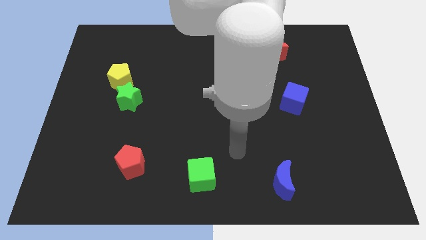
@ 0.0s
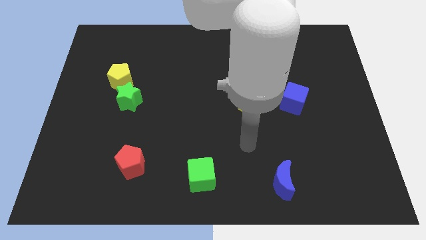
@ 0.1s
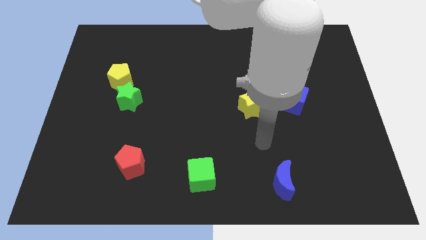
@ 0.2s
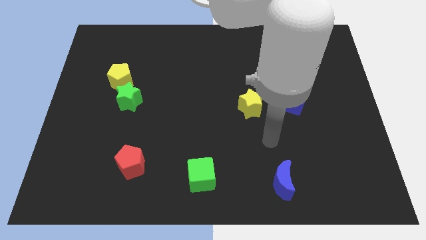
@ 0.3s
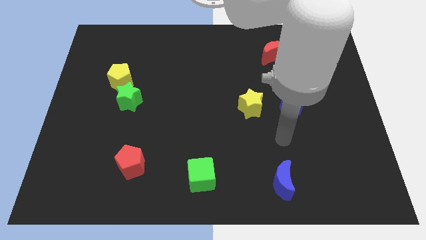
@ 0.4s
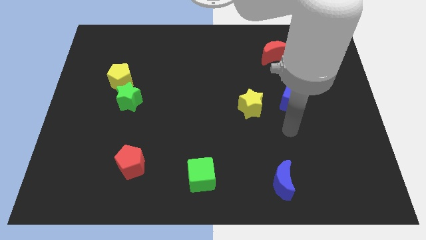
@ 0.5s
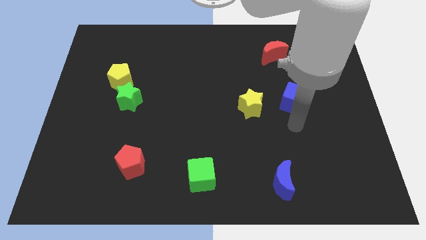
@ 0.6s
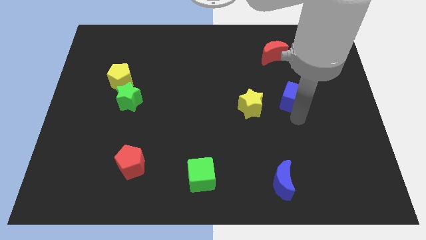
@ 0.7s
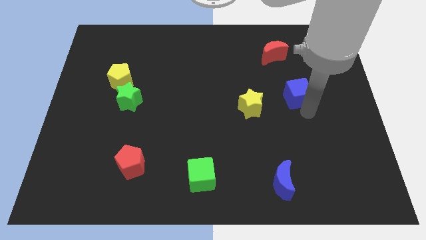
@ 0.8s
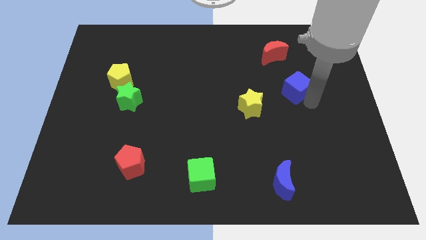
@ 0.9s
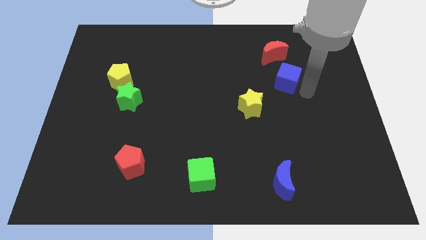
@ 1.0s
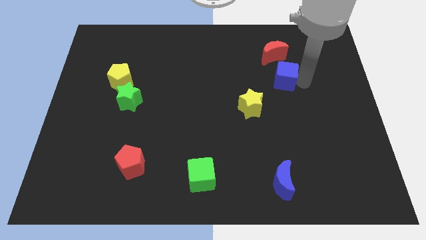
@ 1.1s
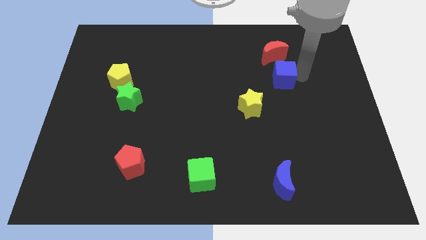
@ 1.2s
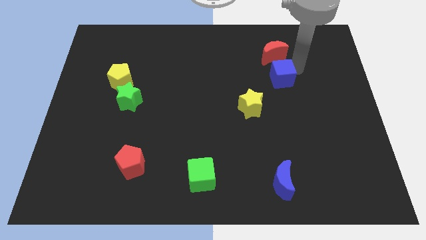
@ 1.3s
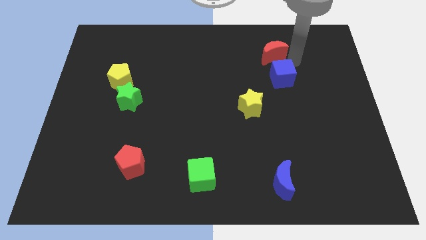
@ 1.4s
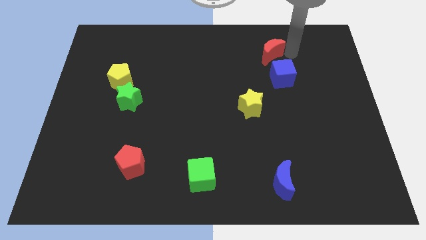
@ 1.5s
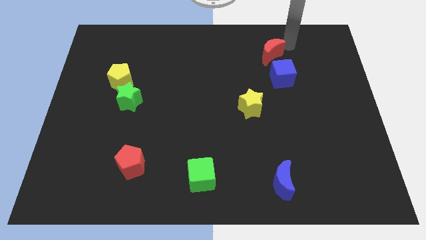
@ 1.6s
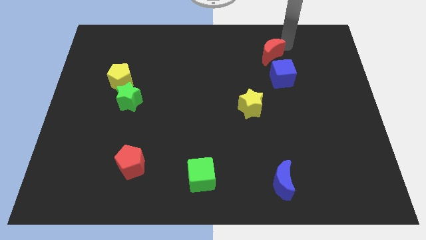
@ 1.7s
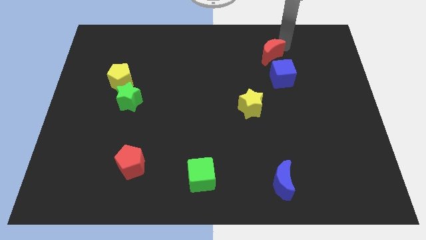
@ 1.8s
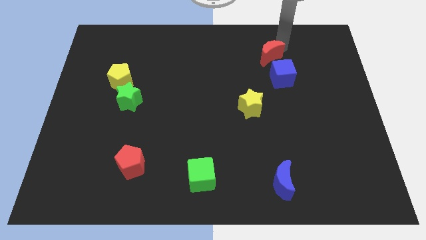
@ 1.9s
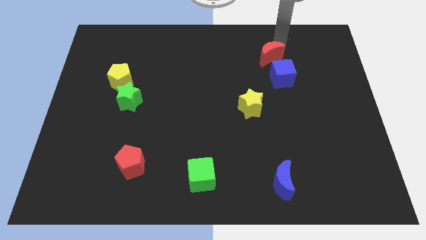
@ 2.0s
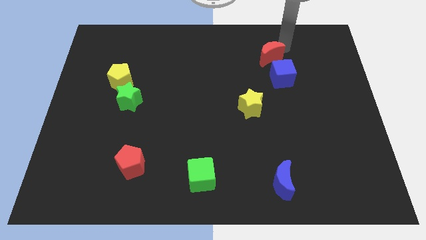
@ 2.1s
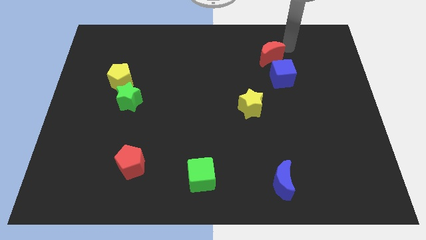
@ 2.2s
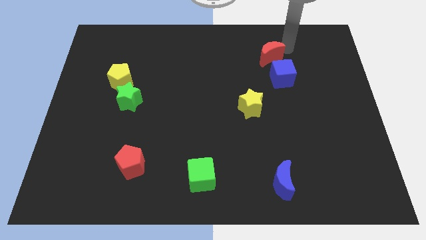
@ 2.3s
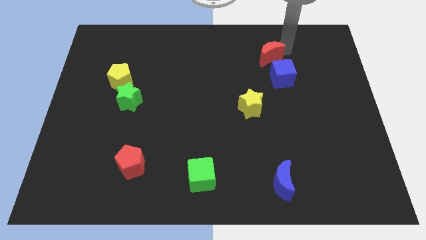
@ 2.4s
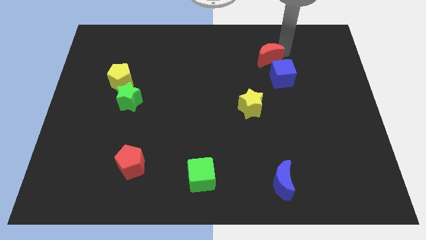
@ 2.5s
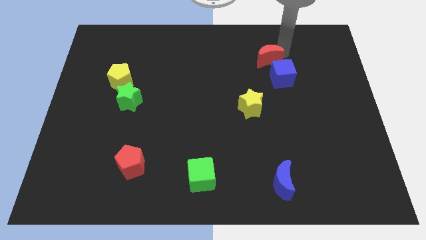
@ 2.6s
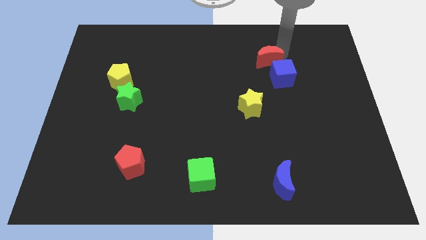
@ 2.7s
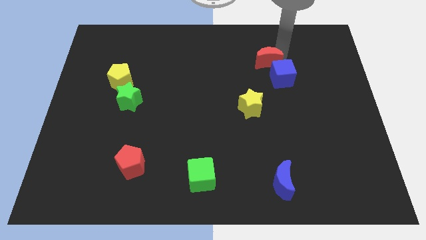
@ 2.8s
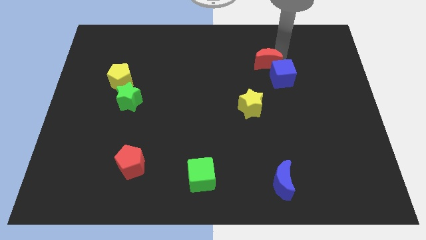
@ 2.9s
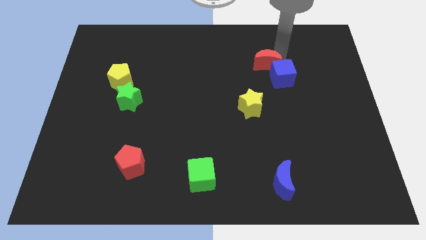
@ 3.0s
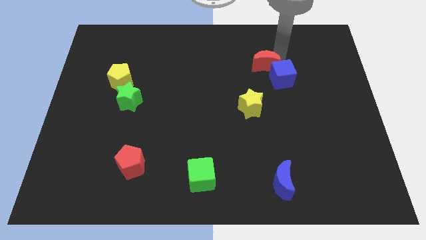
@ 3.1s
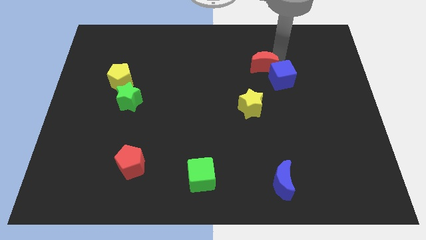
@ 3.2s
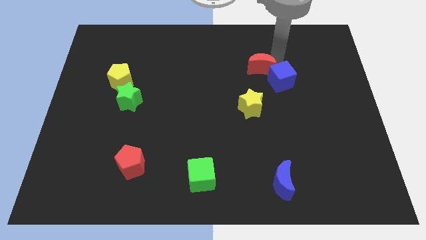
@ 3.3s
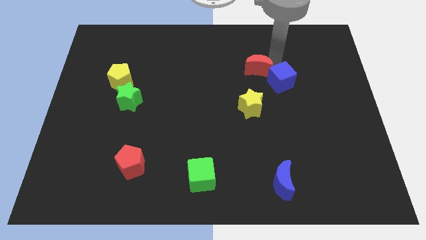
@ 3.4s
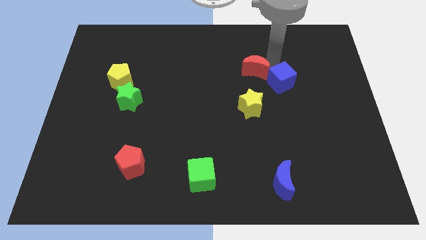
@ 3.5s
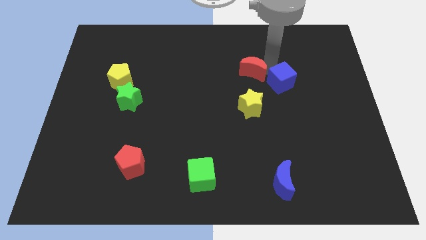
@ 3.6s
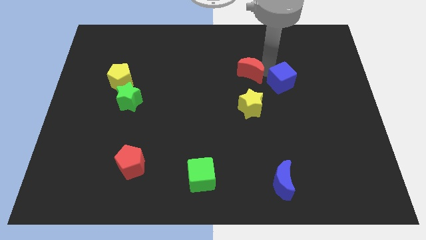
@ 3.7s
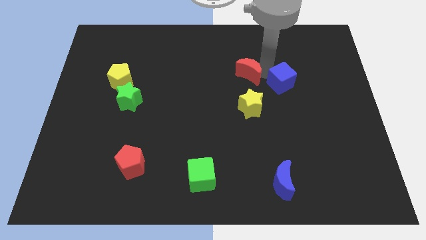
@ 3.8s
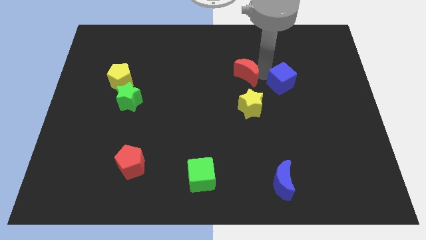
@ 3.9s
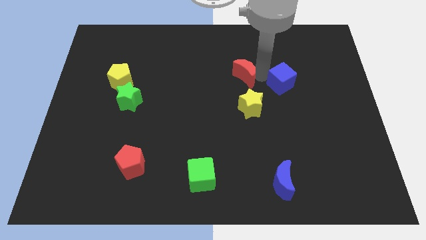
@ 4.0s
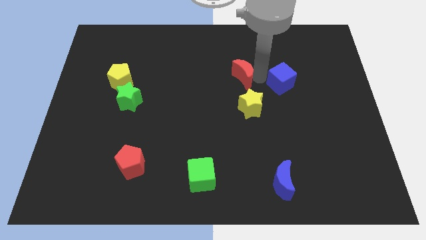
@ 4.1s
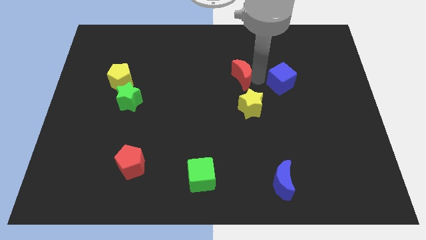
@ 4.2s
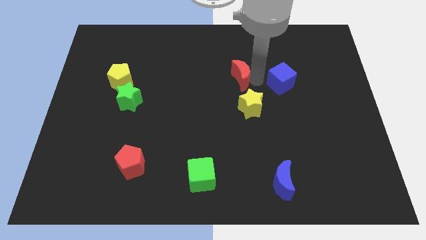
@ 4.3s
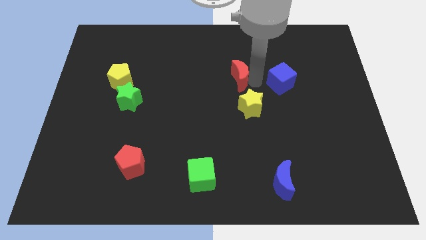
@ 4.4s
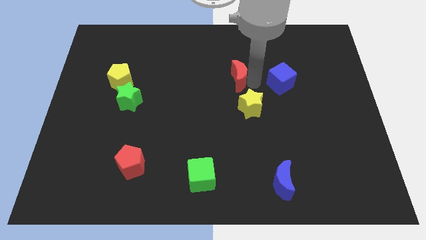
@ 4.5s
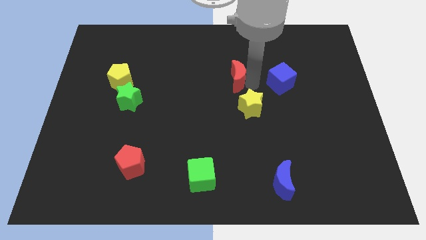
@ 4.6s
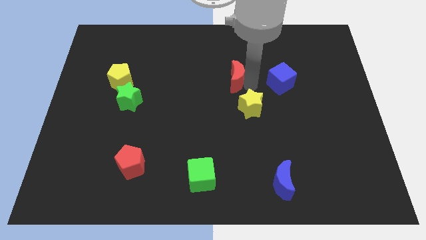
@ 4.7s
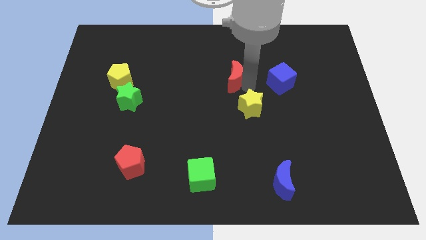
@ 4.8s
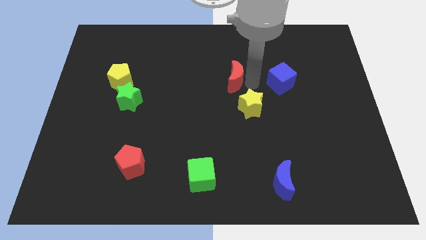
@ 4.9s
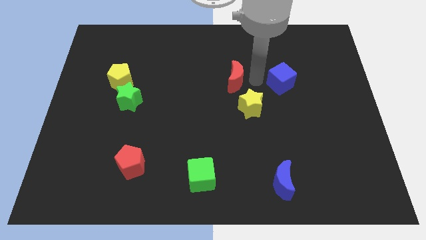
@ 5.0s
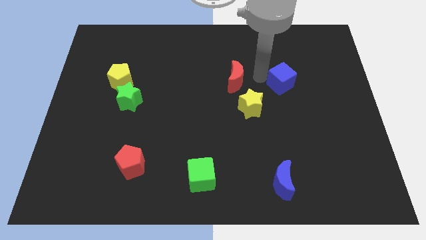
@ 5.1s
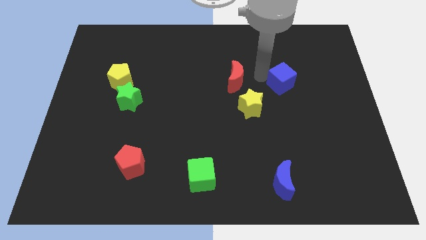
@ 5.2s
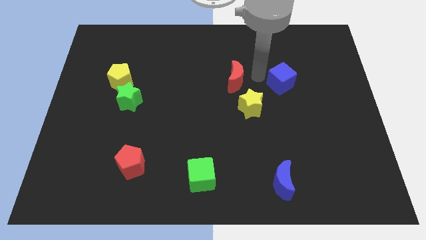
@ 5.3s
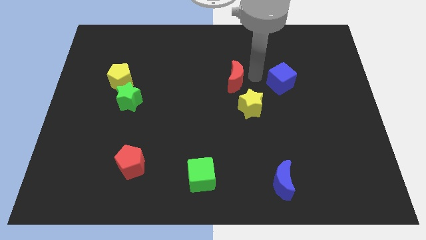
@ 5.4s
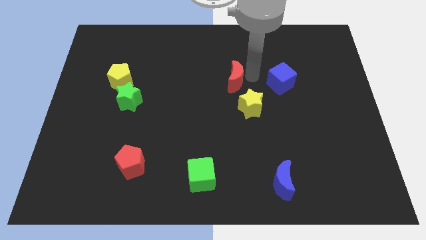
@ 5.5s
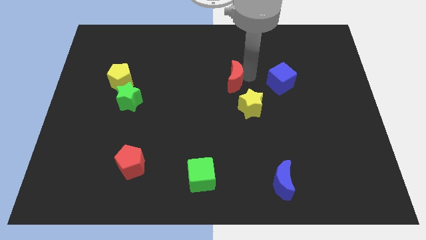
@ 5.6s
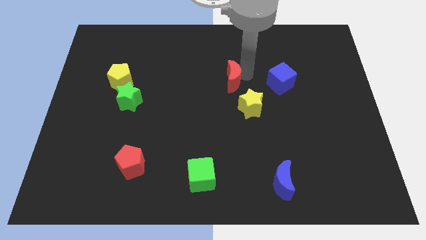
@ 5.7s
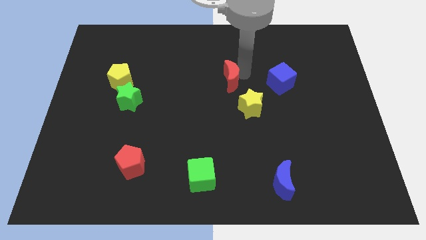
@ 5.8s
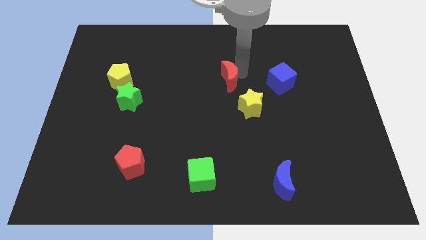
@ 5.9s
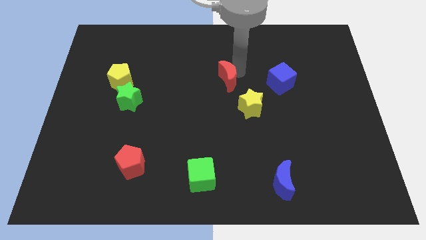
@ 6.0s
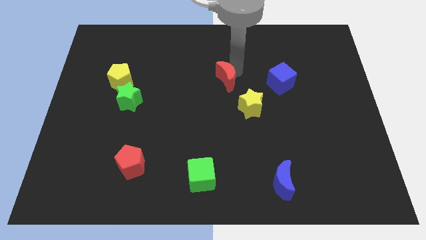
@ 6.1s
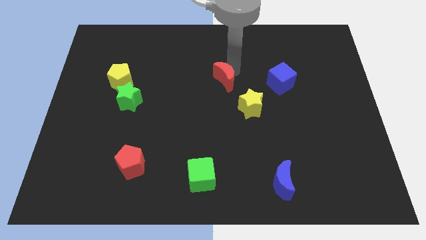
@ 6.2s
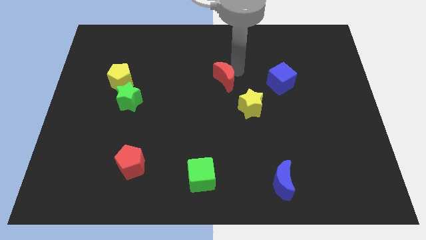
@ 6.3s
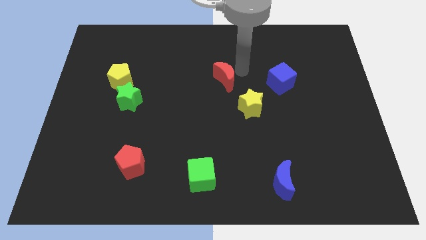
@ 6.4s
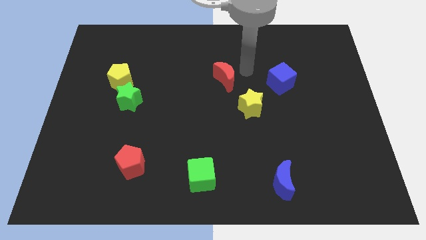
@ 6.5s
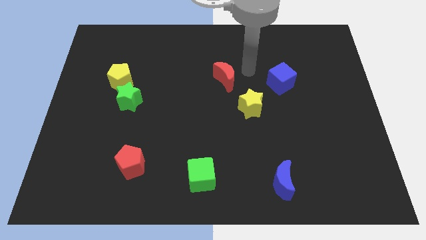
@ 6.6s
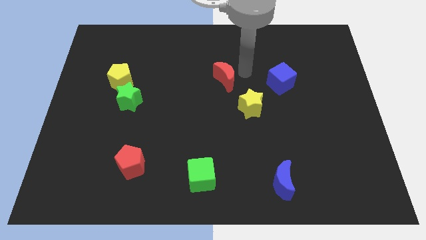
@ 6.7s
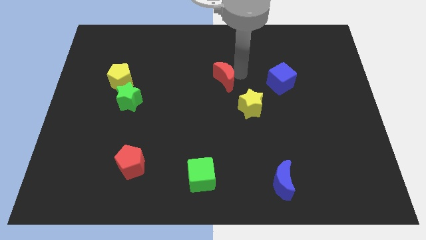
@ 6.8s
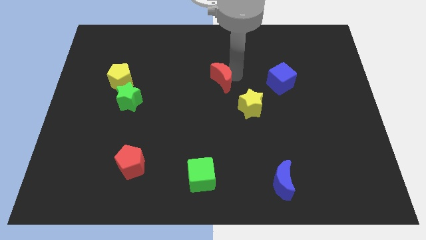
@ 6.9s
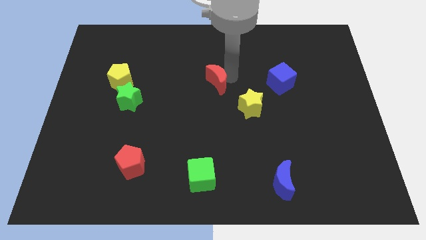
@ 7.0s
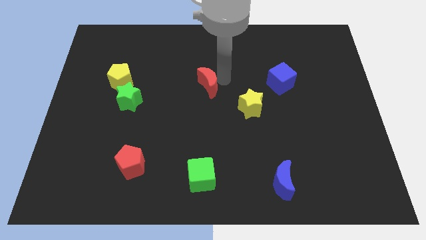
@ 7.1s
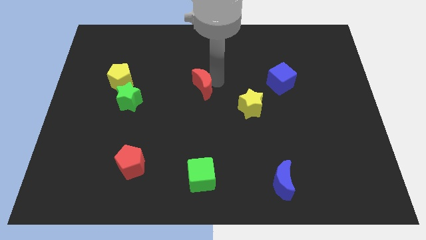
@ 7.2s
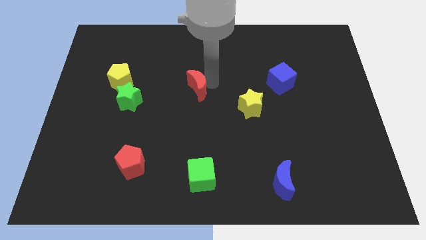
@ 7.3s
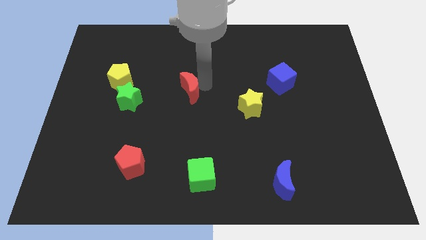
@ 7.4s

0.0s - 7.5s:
push the red moon to the right of the green star
